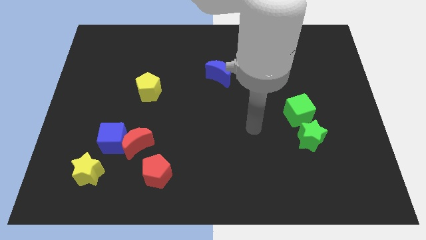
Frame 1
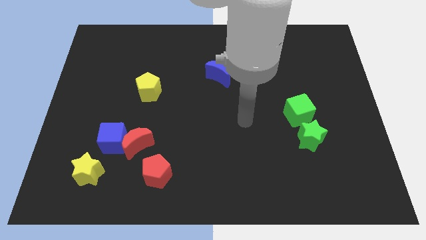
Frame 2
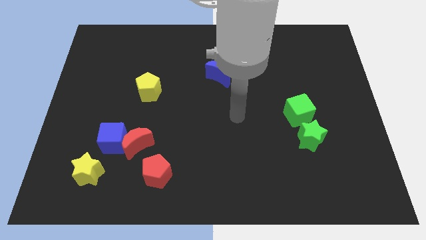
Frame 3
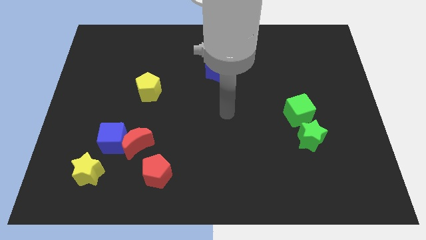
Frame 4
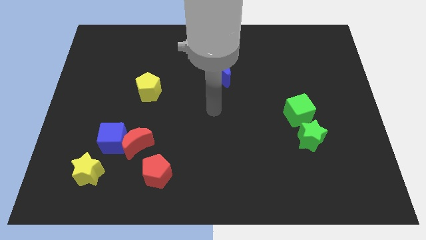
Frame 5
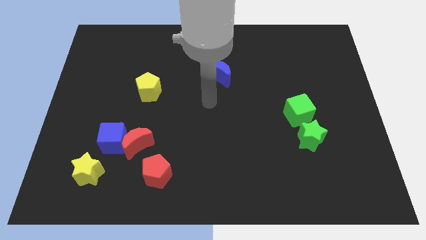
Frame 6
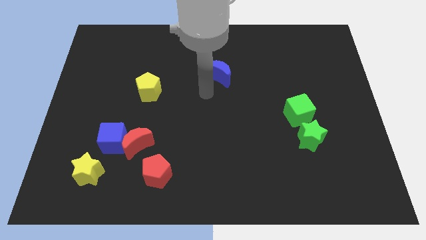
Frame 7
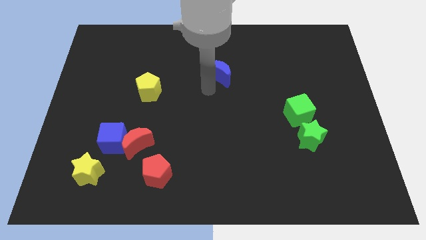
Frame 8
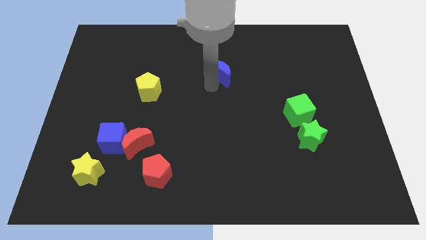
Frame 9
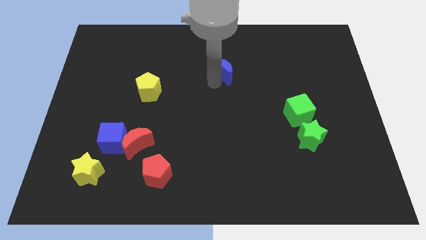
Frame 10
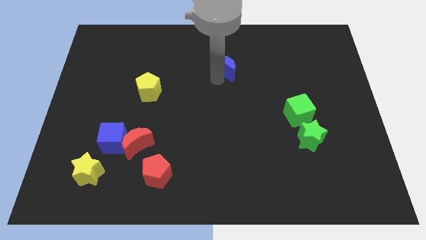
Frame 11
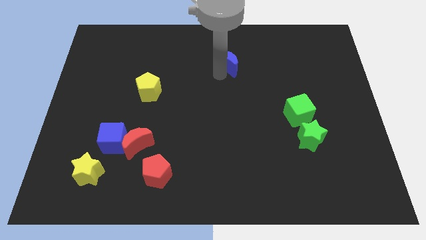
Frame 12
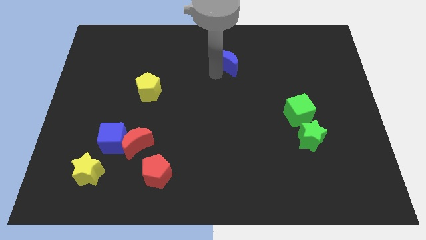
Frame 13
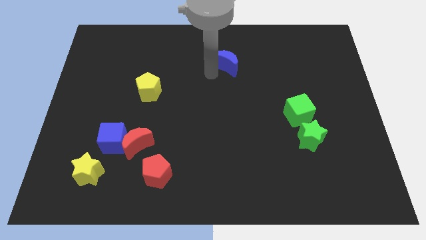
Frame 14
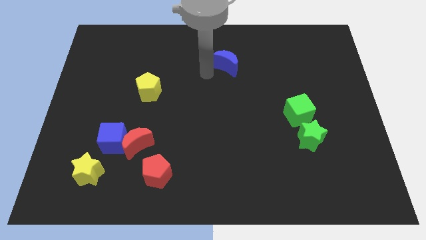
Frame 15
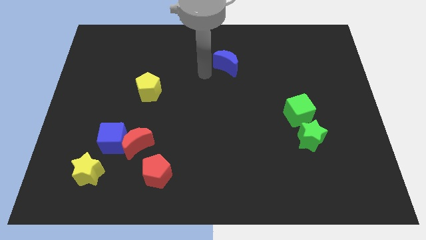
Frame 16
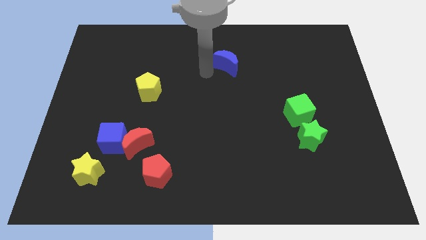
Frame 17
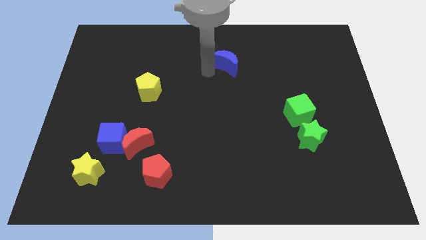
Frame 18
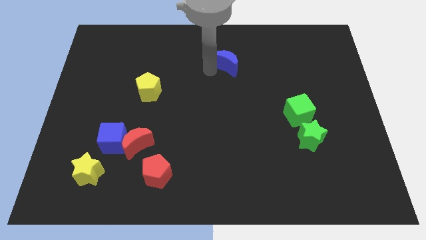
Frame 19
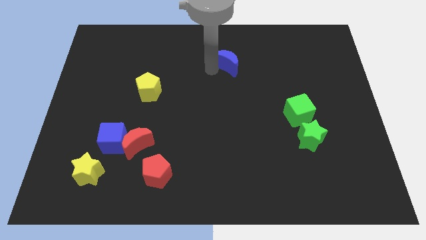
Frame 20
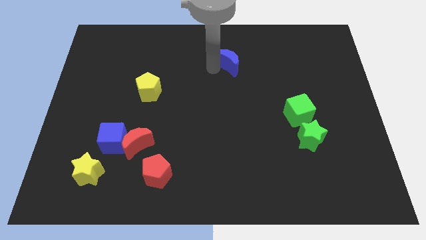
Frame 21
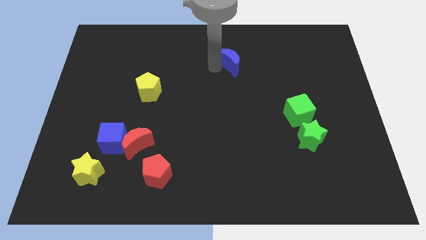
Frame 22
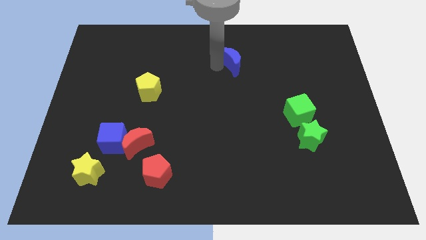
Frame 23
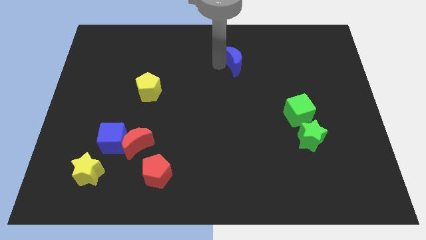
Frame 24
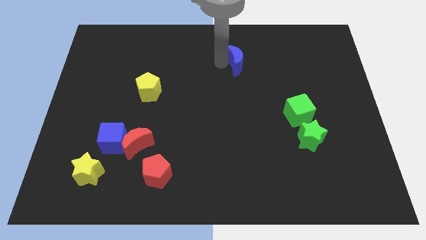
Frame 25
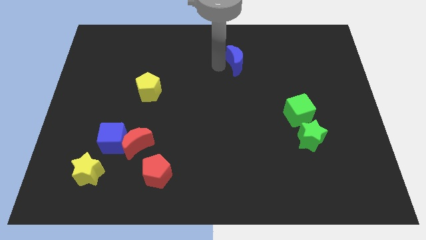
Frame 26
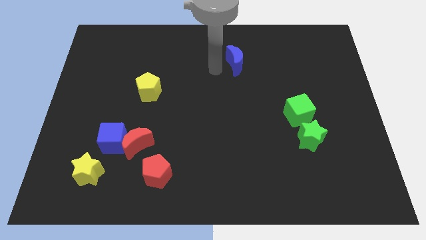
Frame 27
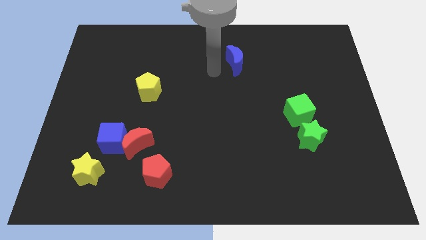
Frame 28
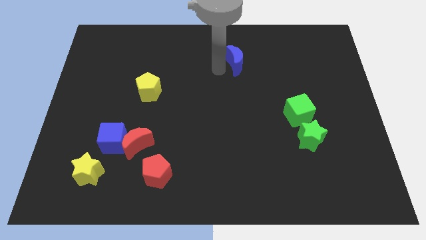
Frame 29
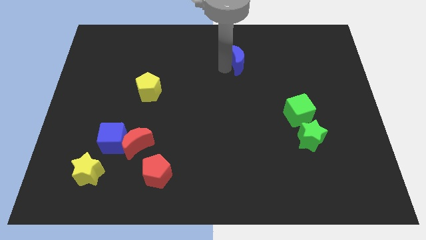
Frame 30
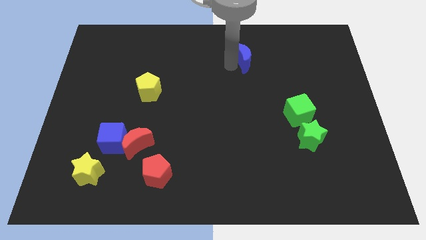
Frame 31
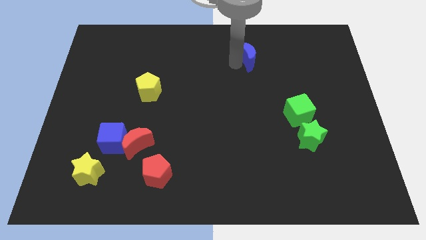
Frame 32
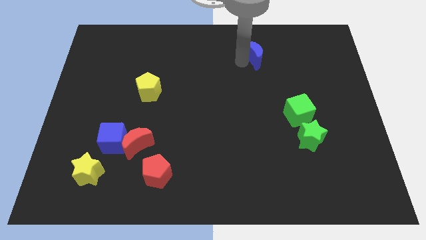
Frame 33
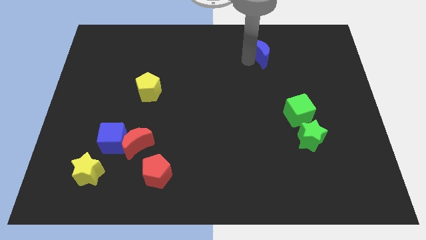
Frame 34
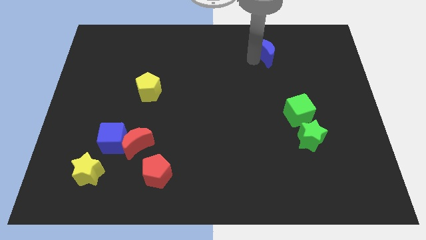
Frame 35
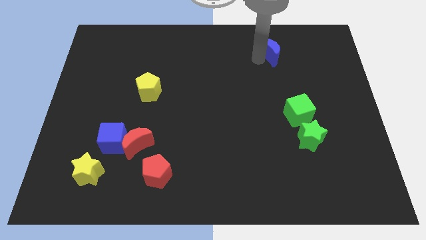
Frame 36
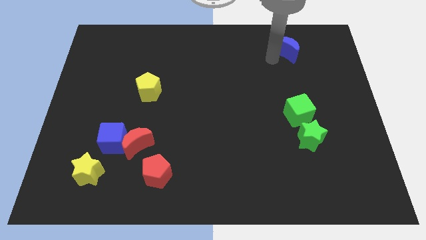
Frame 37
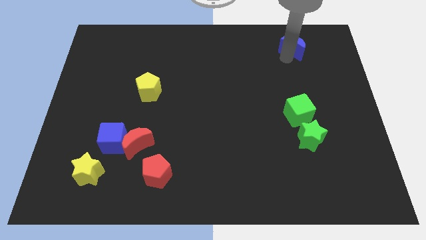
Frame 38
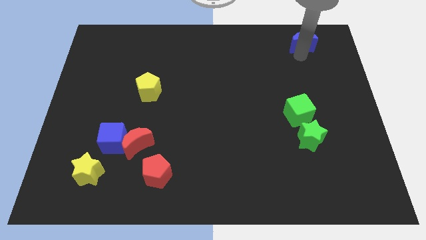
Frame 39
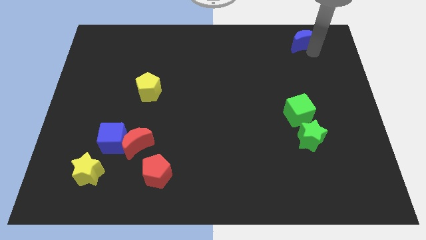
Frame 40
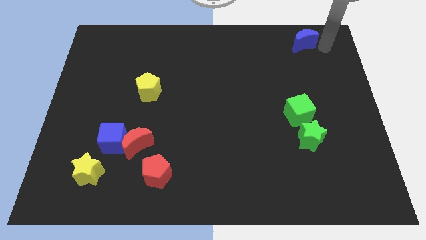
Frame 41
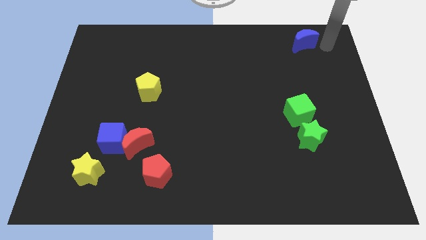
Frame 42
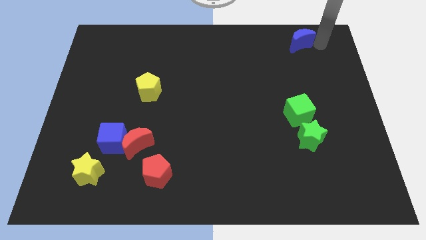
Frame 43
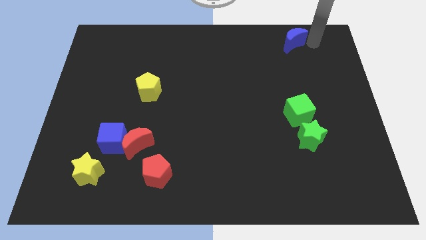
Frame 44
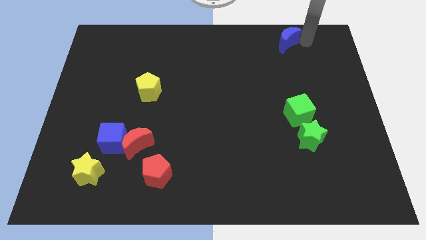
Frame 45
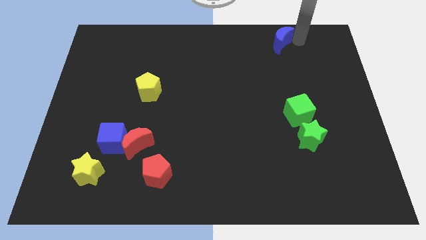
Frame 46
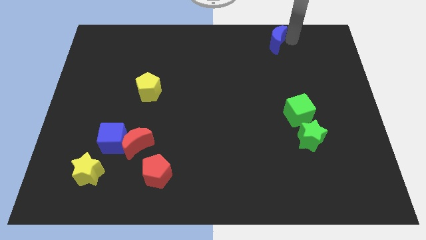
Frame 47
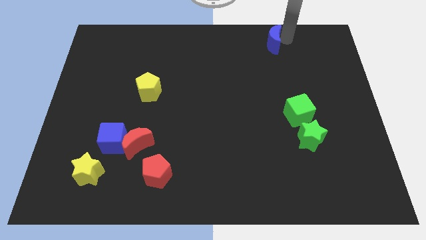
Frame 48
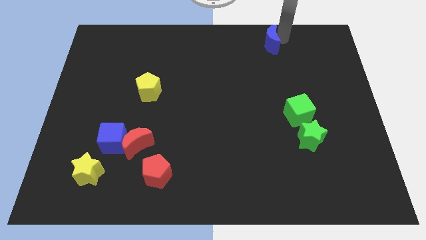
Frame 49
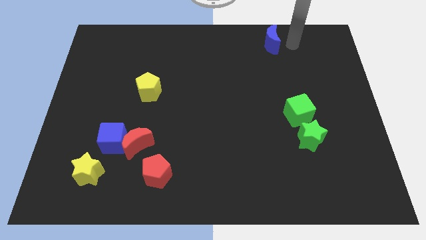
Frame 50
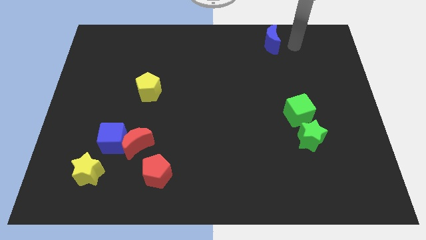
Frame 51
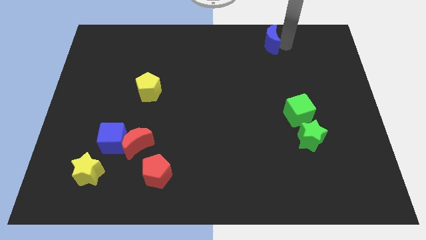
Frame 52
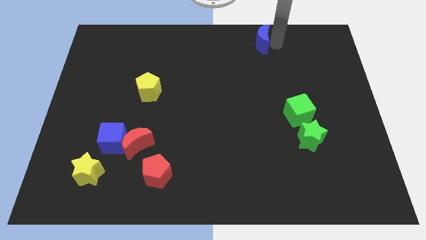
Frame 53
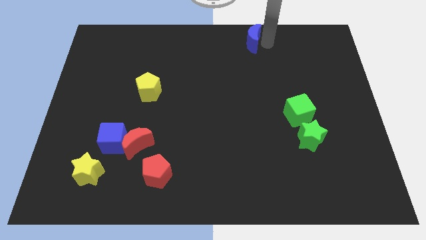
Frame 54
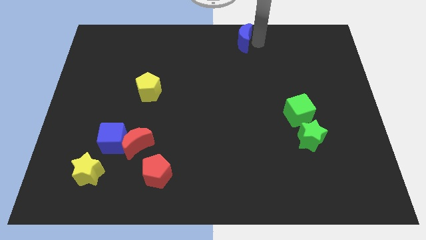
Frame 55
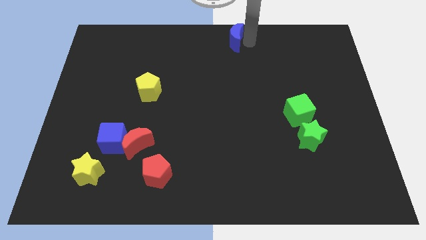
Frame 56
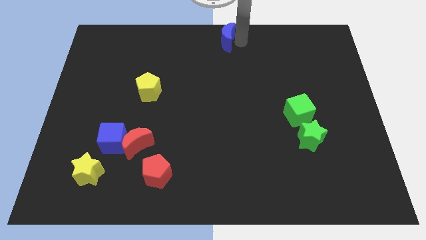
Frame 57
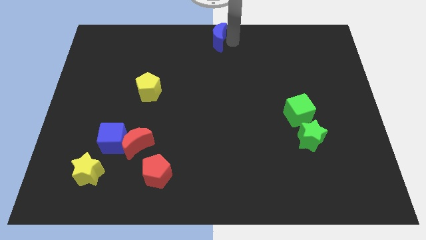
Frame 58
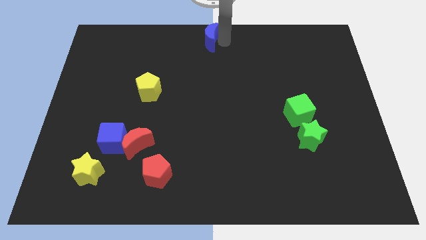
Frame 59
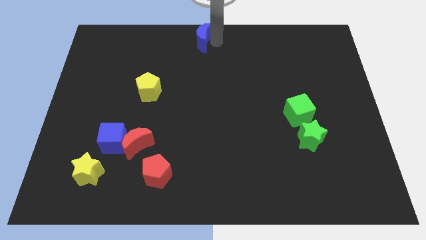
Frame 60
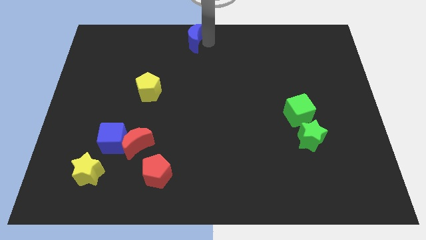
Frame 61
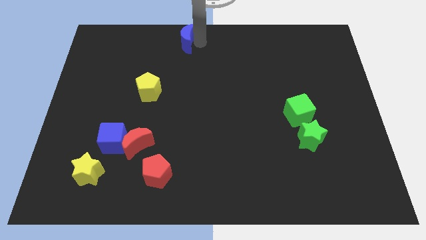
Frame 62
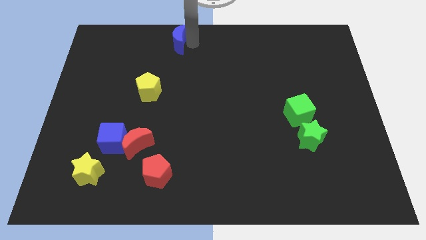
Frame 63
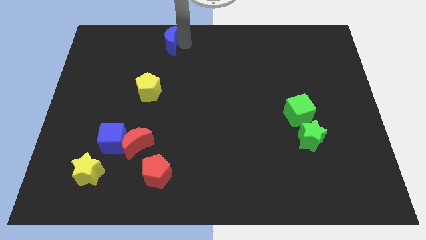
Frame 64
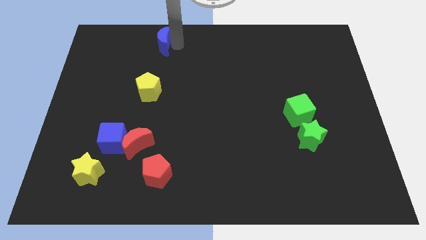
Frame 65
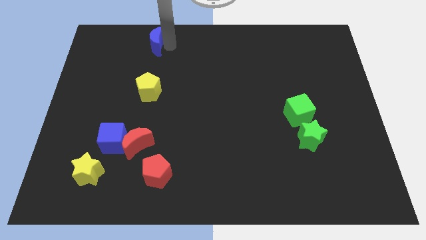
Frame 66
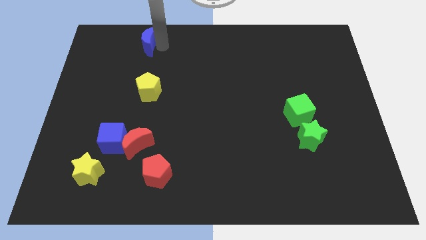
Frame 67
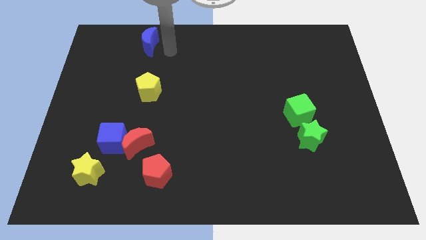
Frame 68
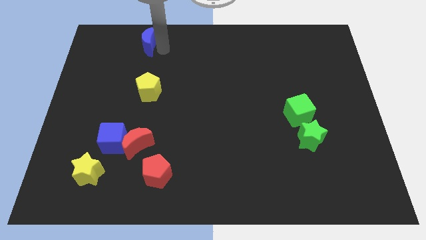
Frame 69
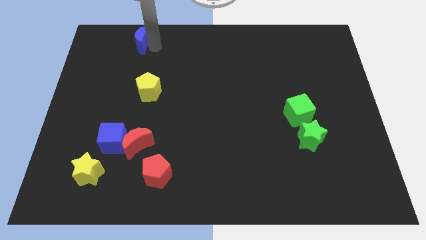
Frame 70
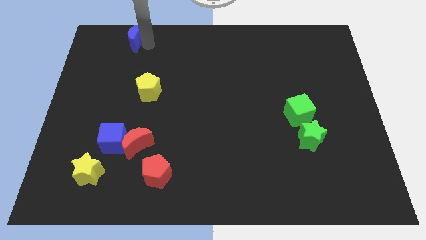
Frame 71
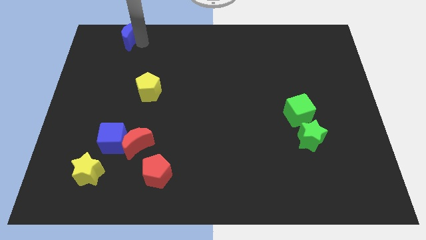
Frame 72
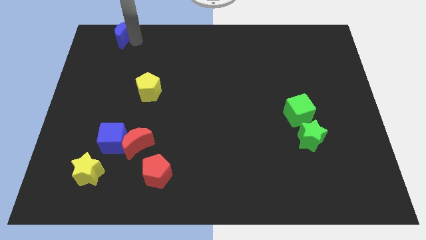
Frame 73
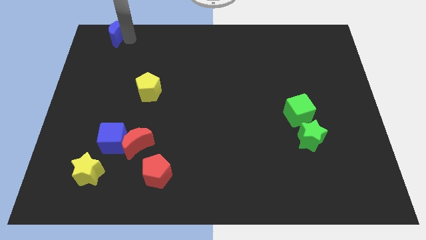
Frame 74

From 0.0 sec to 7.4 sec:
move the blue moon to the upper left corner

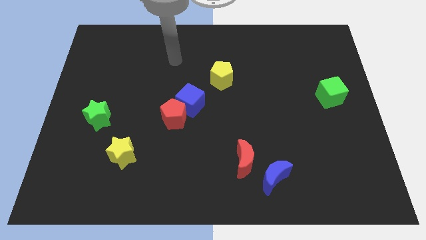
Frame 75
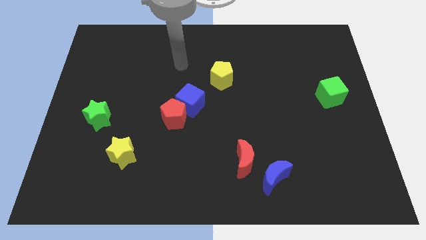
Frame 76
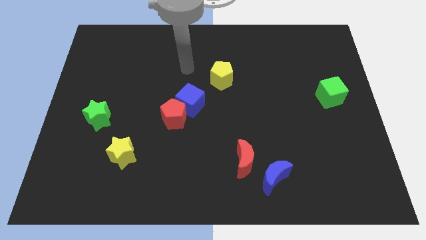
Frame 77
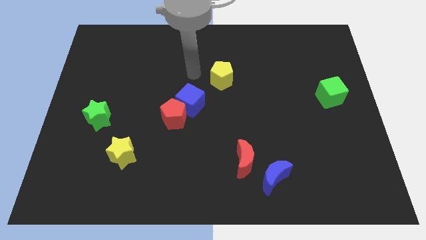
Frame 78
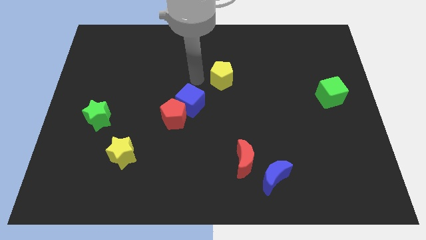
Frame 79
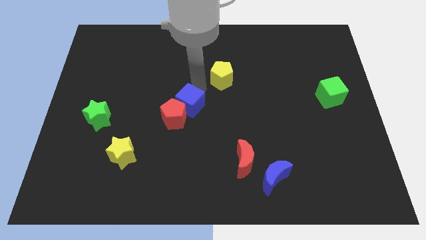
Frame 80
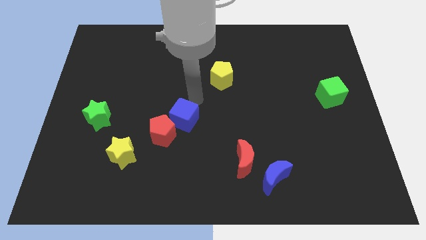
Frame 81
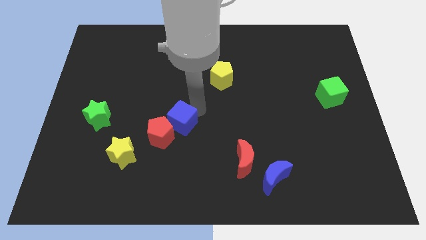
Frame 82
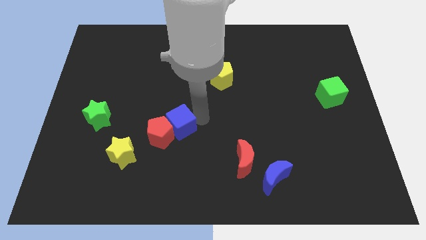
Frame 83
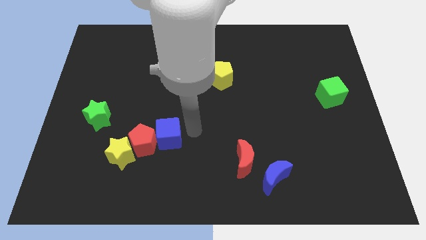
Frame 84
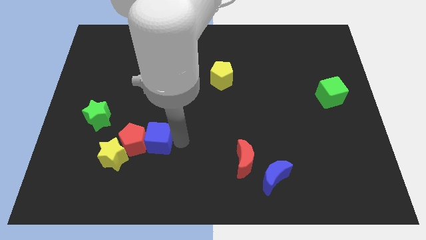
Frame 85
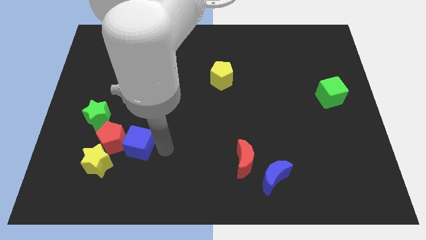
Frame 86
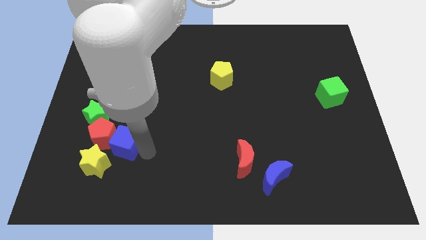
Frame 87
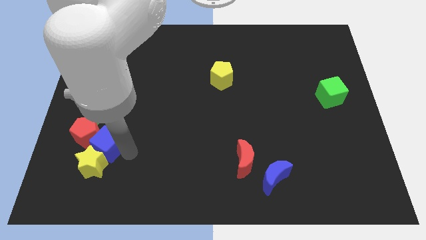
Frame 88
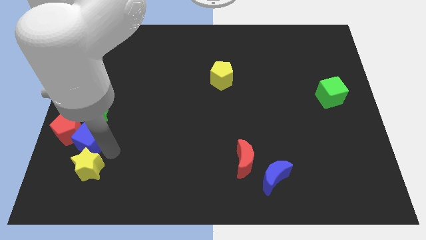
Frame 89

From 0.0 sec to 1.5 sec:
slide the red pentagon to the left side
